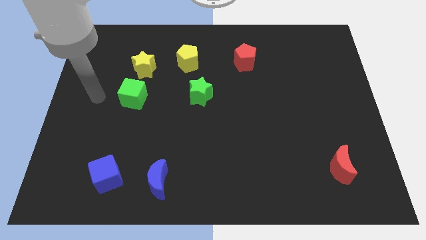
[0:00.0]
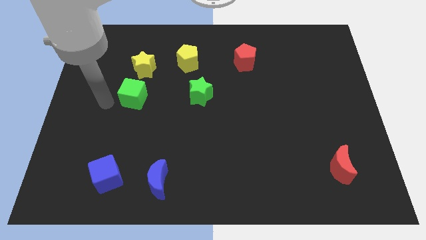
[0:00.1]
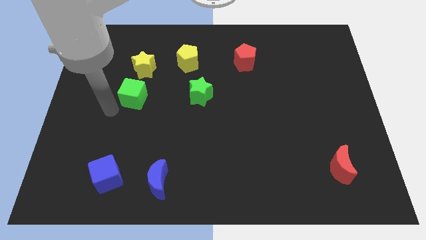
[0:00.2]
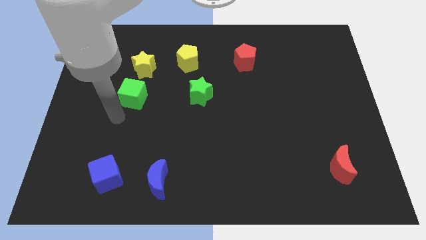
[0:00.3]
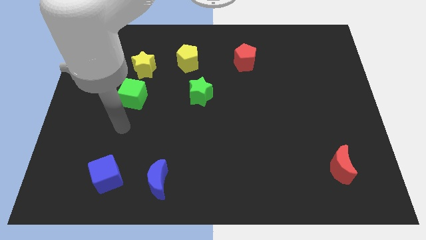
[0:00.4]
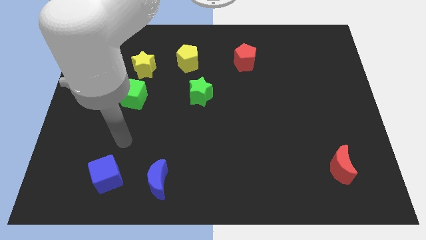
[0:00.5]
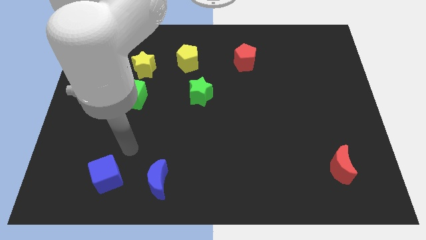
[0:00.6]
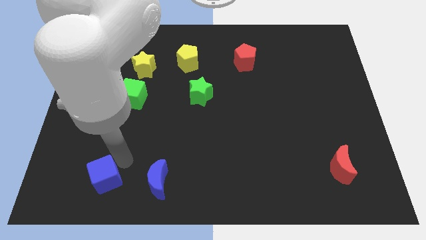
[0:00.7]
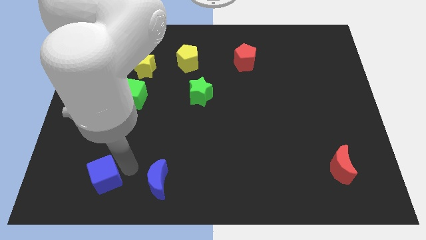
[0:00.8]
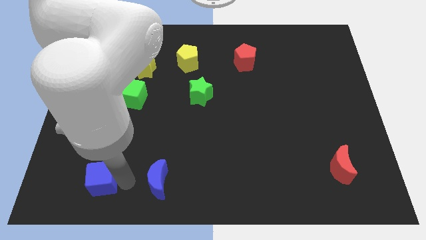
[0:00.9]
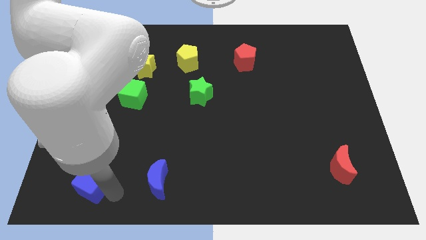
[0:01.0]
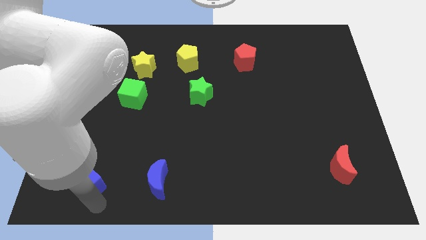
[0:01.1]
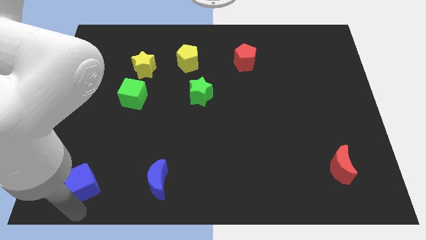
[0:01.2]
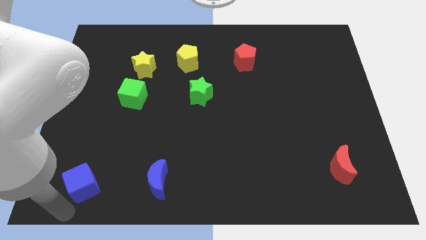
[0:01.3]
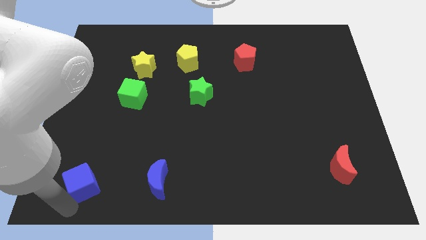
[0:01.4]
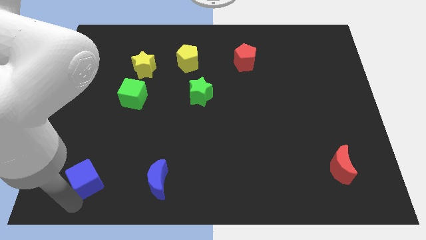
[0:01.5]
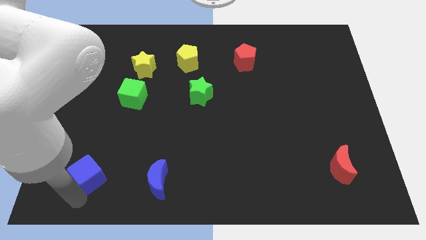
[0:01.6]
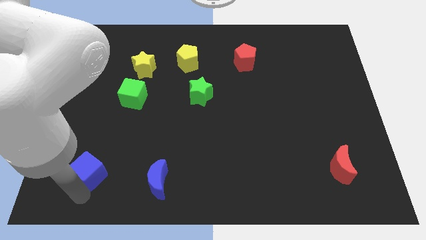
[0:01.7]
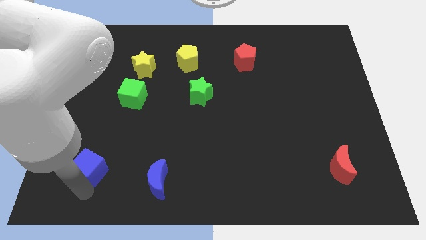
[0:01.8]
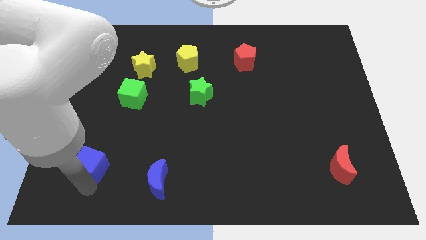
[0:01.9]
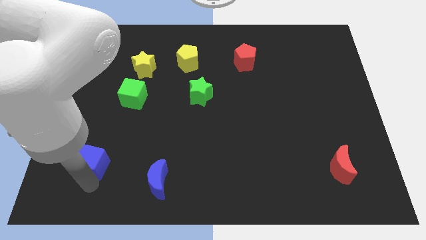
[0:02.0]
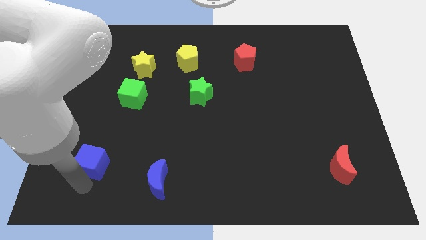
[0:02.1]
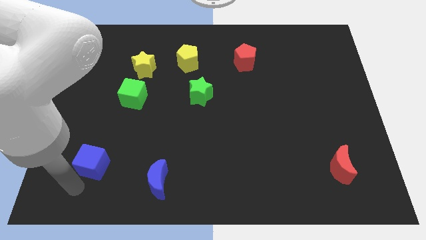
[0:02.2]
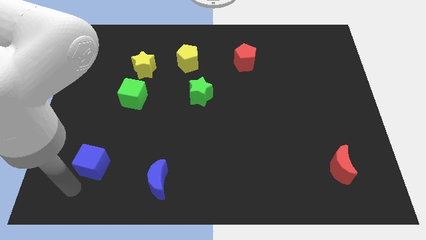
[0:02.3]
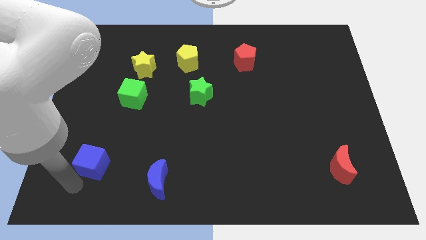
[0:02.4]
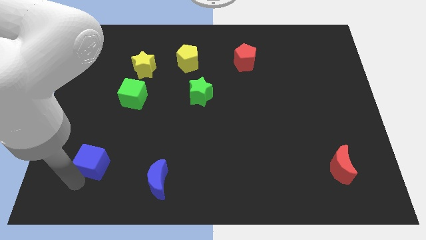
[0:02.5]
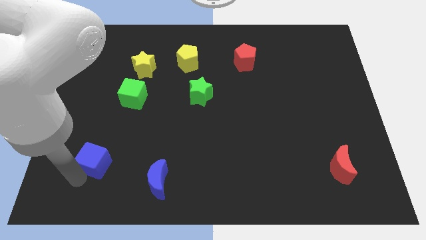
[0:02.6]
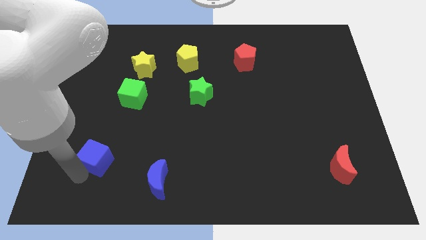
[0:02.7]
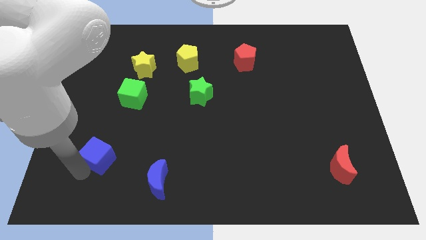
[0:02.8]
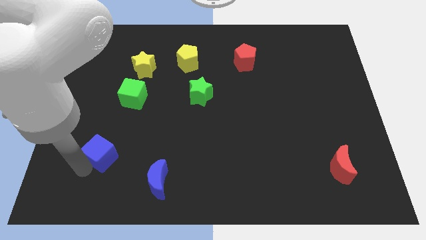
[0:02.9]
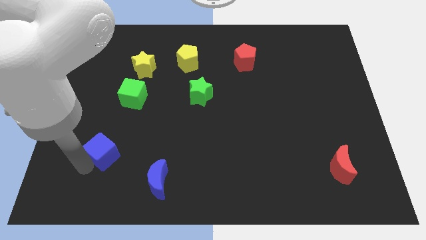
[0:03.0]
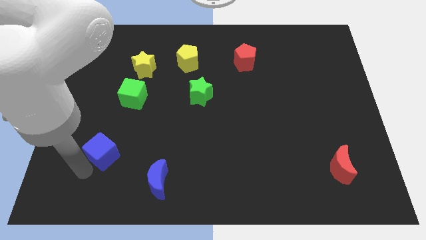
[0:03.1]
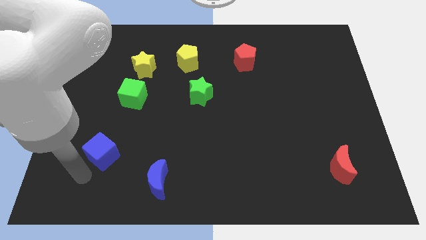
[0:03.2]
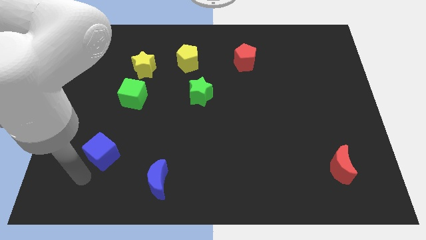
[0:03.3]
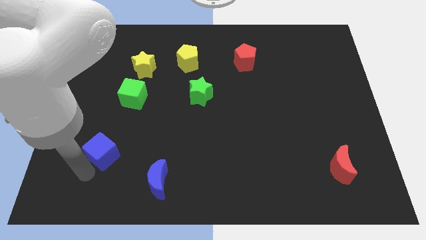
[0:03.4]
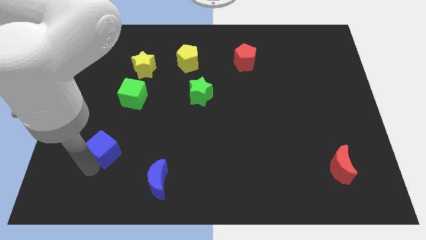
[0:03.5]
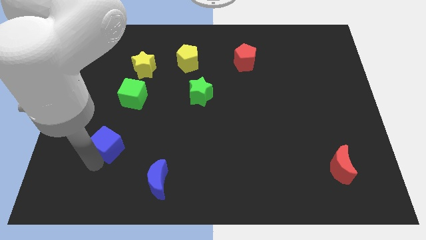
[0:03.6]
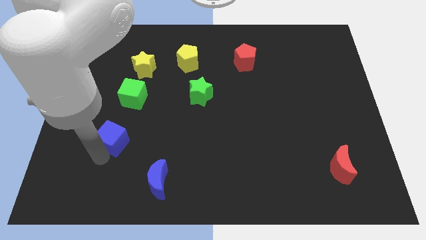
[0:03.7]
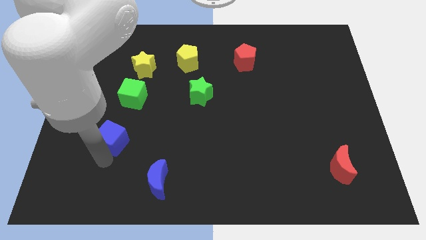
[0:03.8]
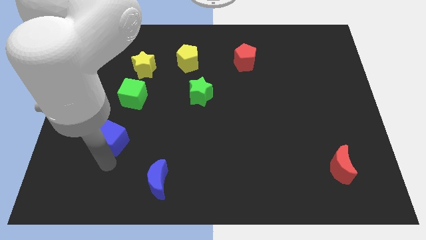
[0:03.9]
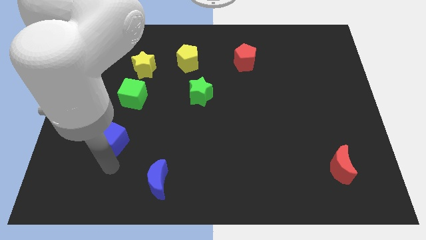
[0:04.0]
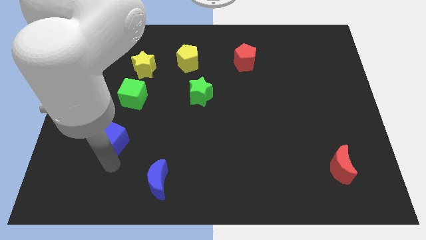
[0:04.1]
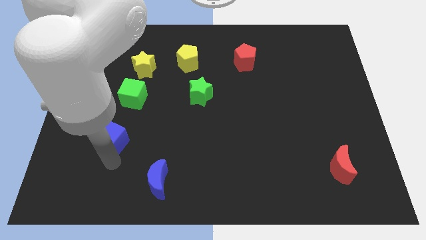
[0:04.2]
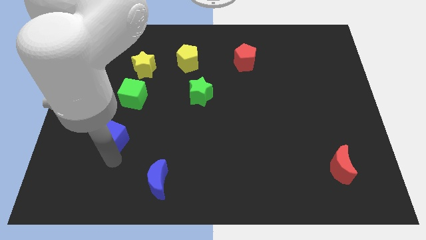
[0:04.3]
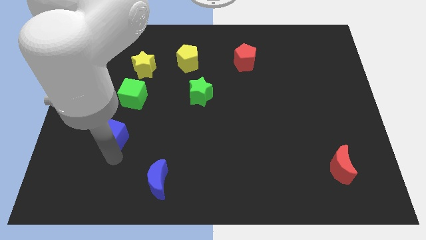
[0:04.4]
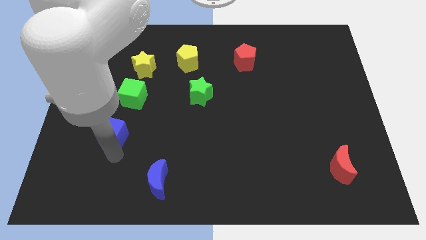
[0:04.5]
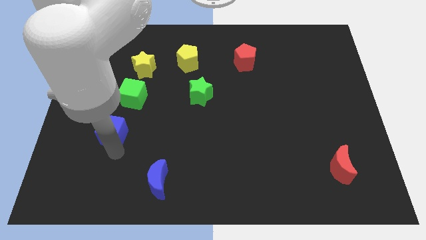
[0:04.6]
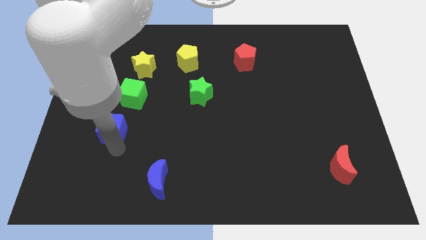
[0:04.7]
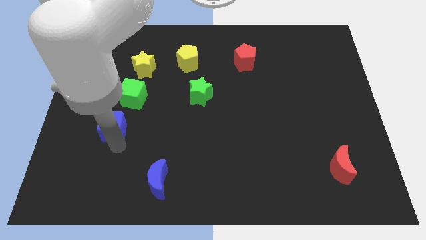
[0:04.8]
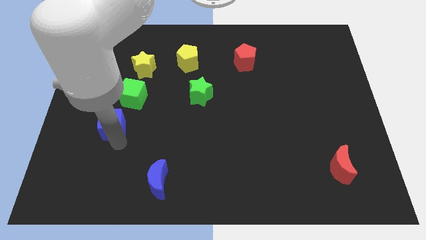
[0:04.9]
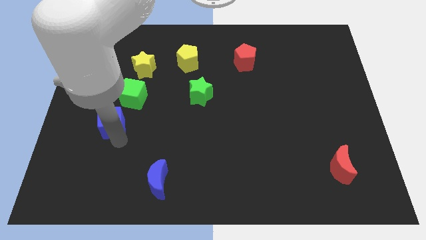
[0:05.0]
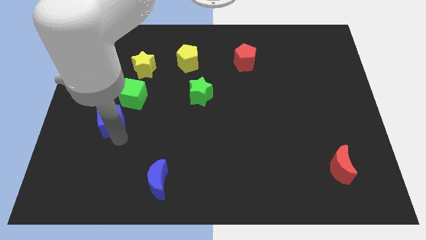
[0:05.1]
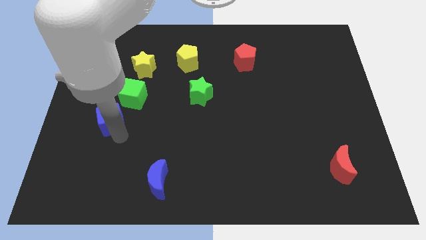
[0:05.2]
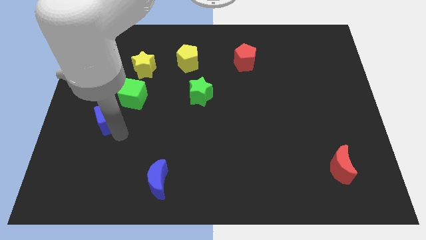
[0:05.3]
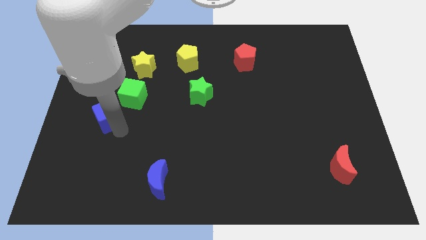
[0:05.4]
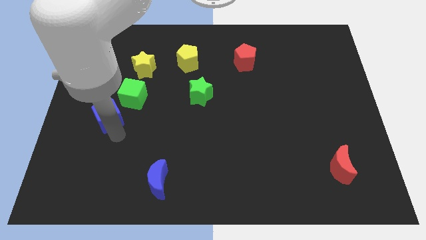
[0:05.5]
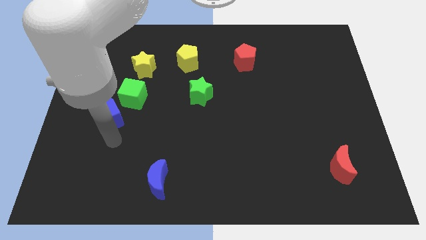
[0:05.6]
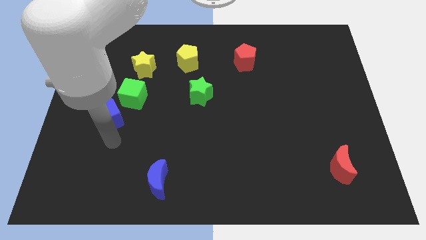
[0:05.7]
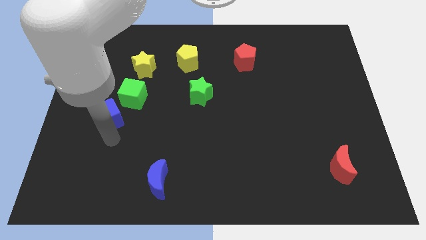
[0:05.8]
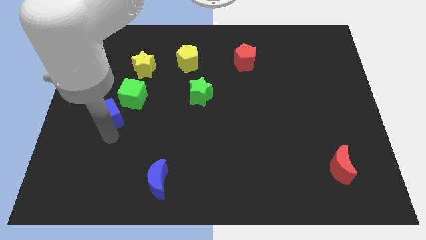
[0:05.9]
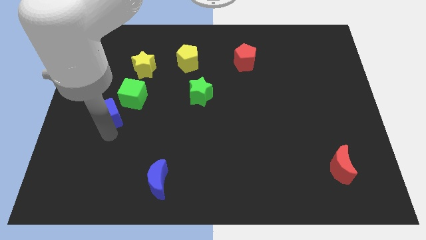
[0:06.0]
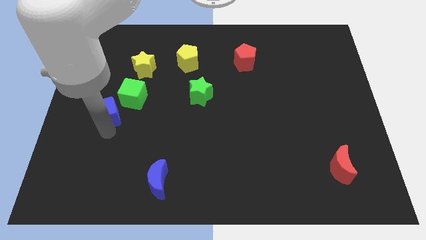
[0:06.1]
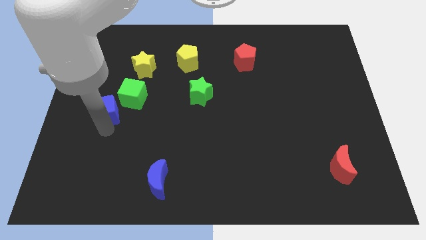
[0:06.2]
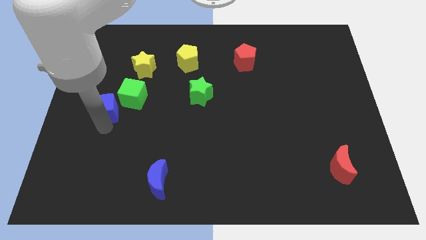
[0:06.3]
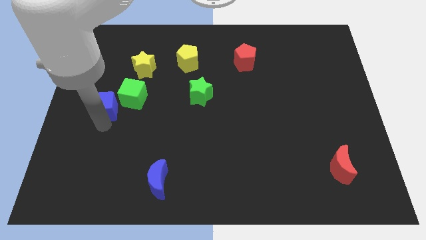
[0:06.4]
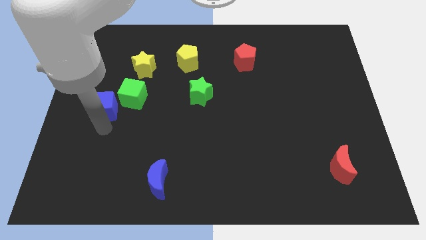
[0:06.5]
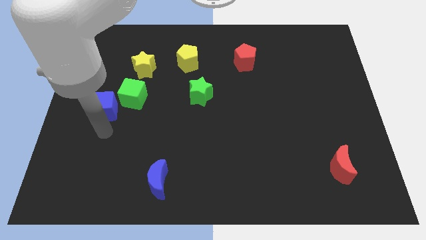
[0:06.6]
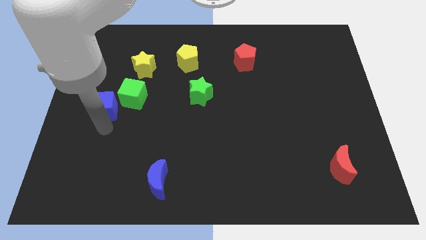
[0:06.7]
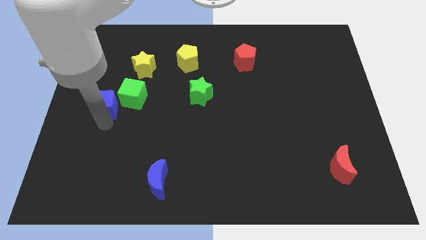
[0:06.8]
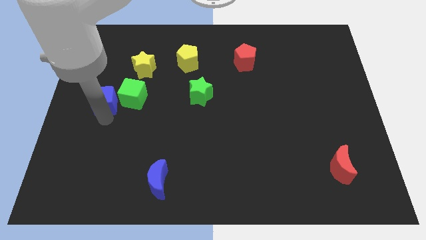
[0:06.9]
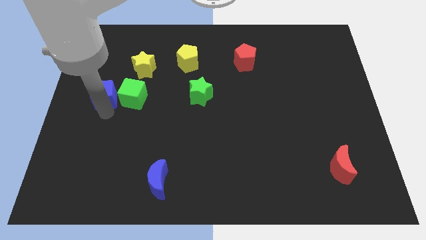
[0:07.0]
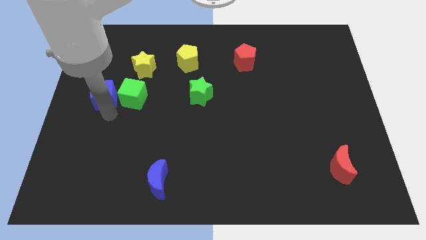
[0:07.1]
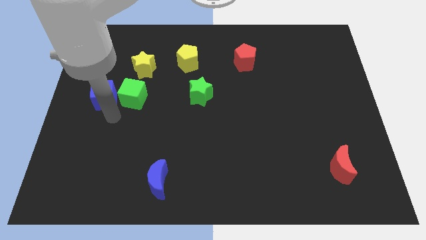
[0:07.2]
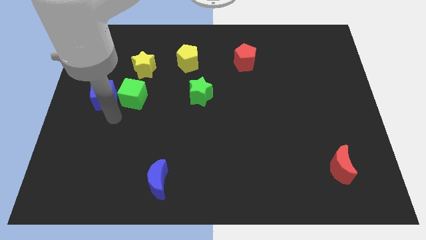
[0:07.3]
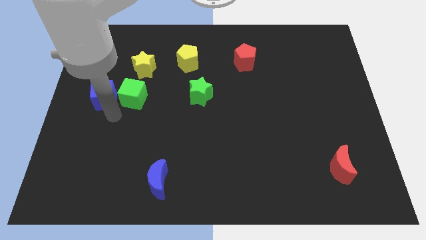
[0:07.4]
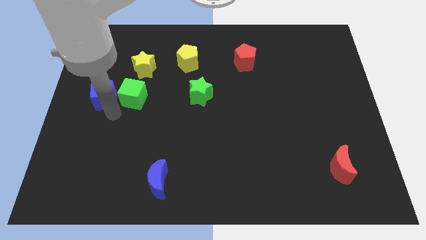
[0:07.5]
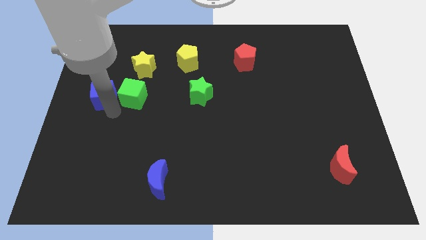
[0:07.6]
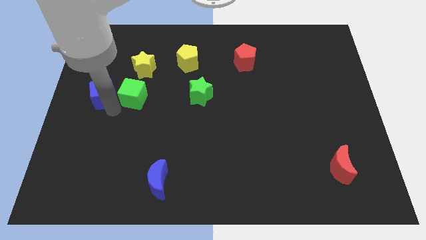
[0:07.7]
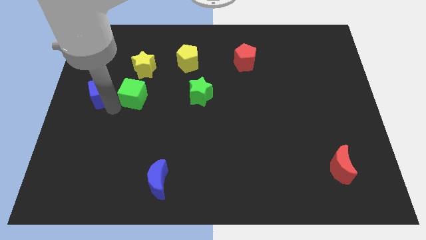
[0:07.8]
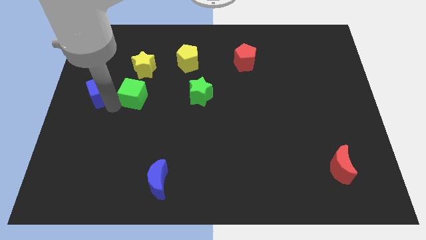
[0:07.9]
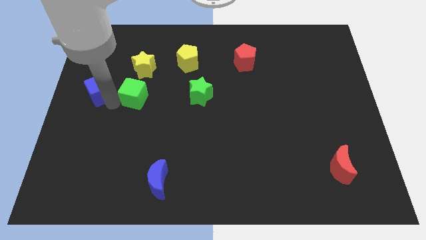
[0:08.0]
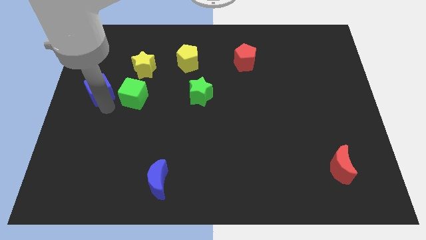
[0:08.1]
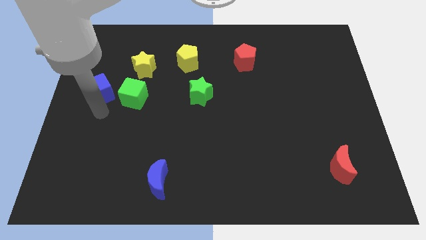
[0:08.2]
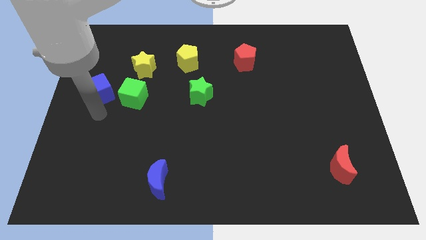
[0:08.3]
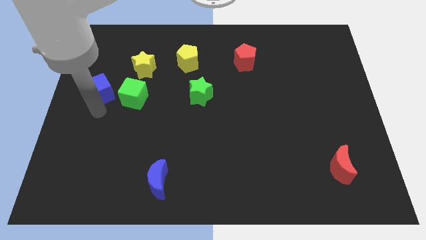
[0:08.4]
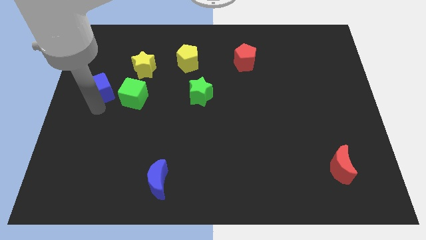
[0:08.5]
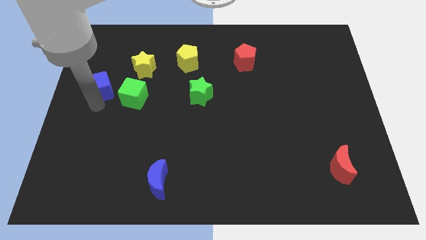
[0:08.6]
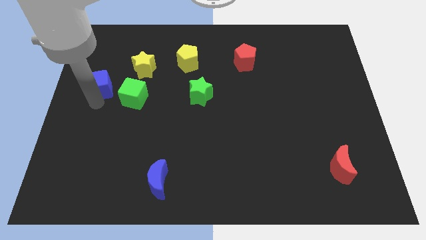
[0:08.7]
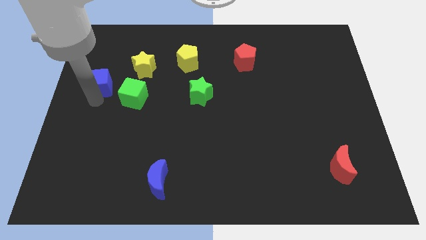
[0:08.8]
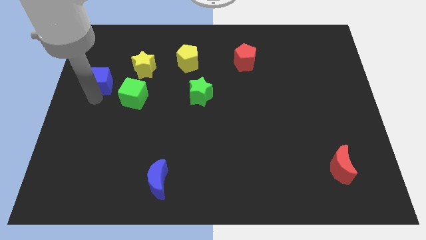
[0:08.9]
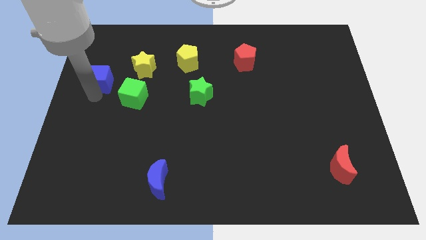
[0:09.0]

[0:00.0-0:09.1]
move the blue cube just left of the yellow star
